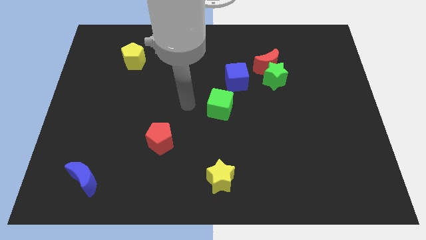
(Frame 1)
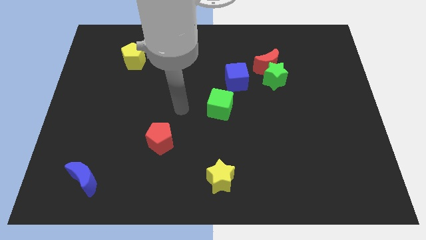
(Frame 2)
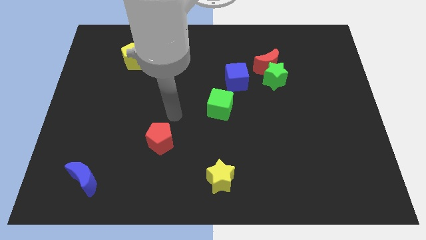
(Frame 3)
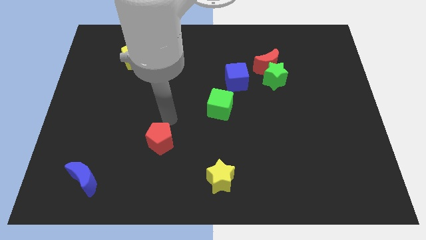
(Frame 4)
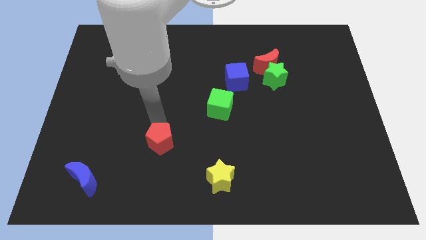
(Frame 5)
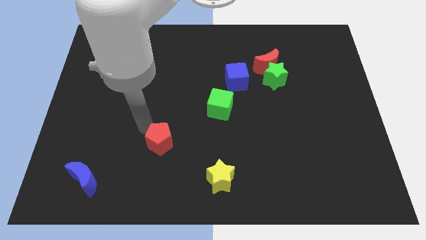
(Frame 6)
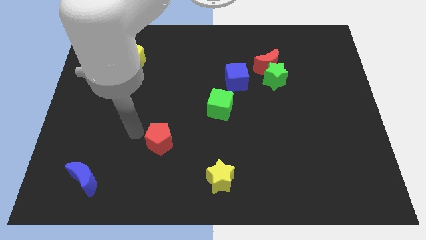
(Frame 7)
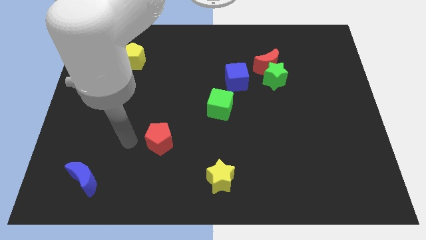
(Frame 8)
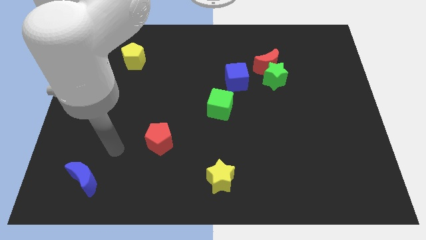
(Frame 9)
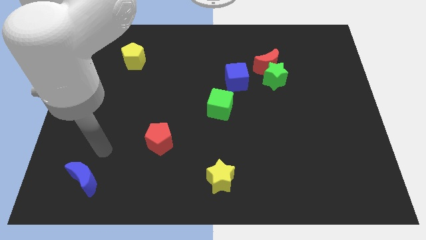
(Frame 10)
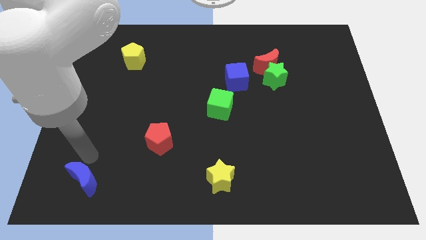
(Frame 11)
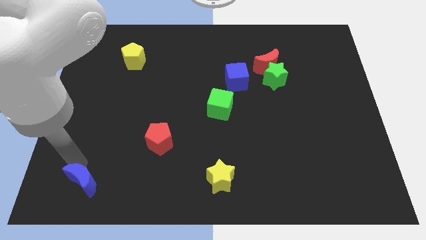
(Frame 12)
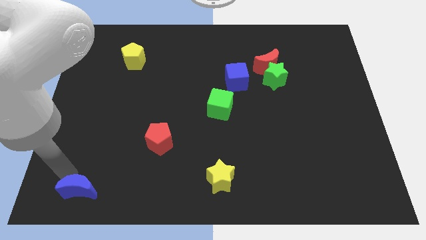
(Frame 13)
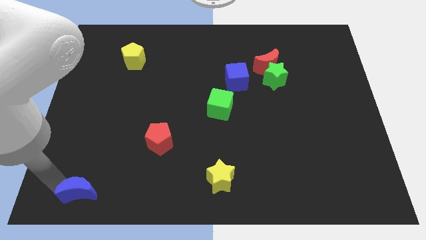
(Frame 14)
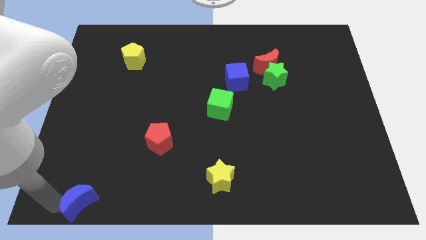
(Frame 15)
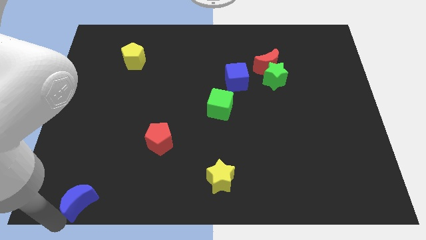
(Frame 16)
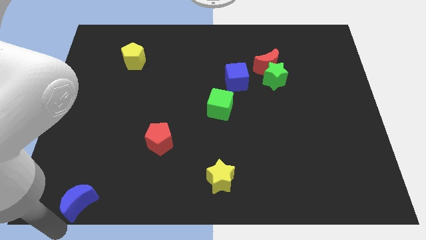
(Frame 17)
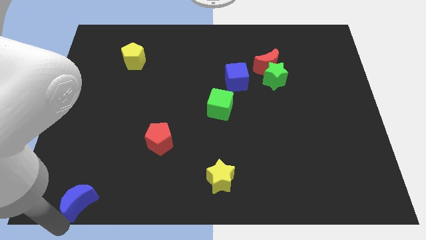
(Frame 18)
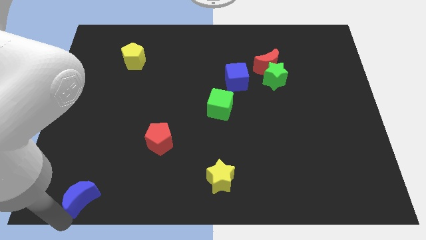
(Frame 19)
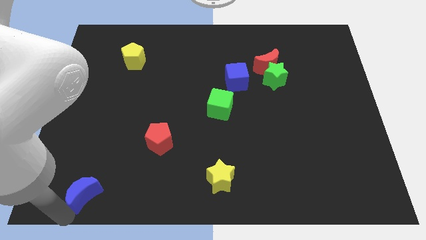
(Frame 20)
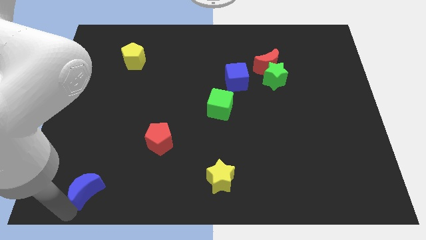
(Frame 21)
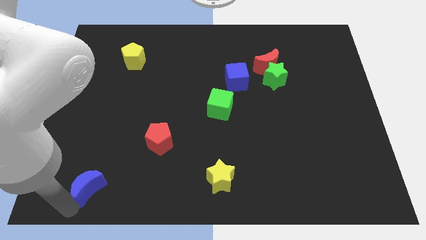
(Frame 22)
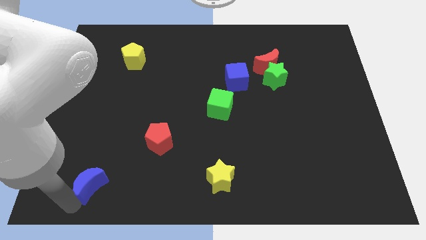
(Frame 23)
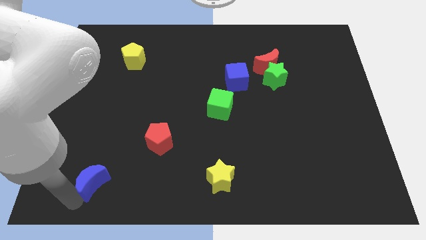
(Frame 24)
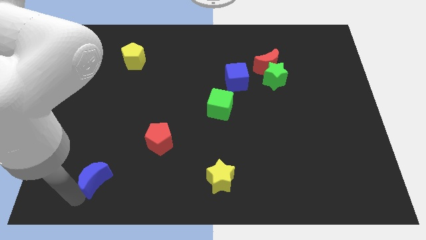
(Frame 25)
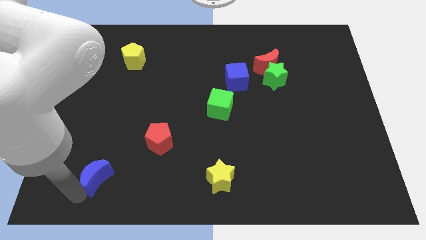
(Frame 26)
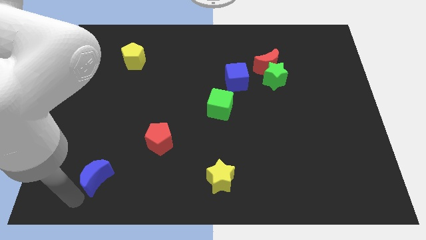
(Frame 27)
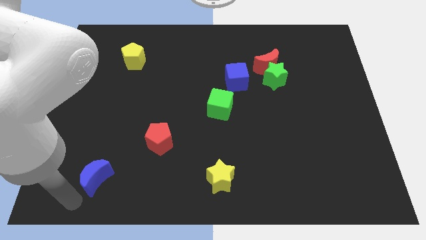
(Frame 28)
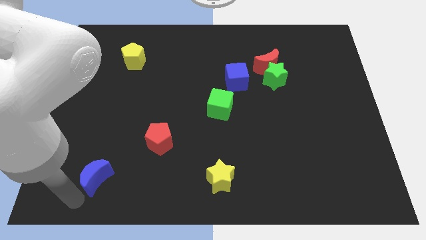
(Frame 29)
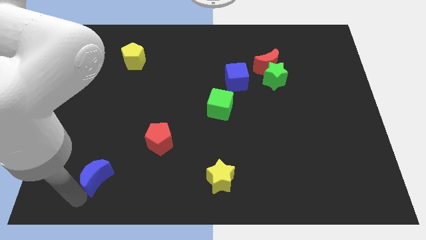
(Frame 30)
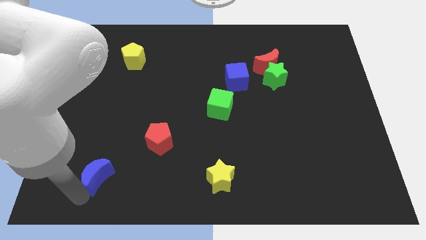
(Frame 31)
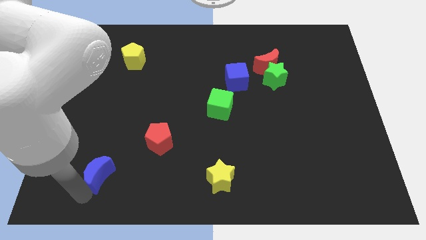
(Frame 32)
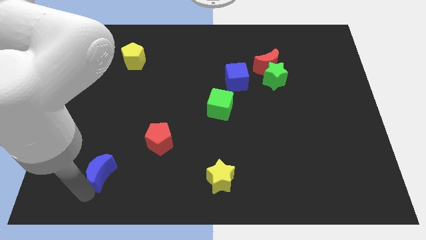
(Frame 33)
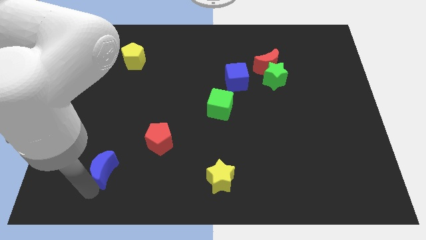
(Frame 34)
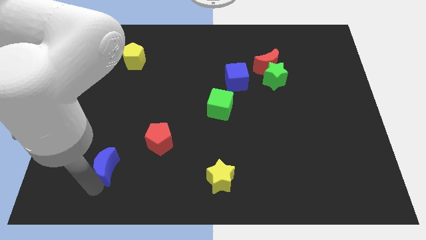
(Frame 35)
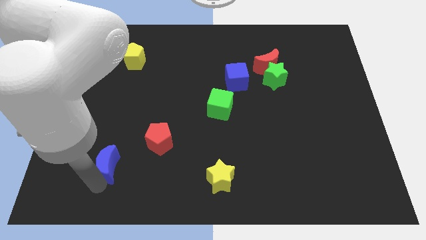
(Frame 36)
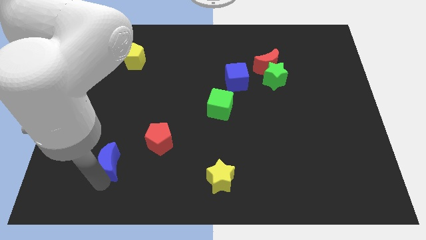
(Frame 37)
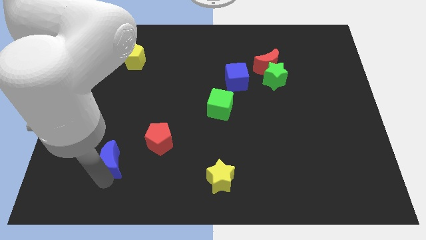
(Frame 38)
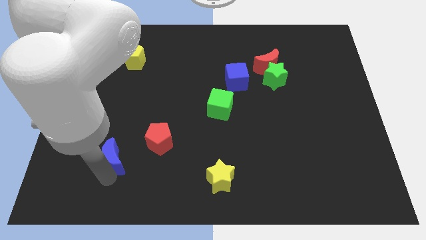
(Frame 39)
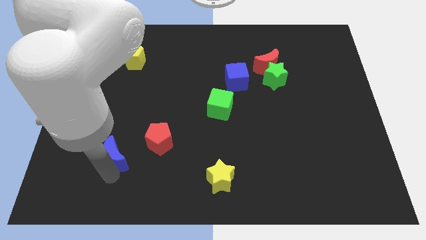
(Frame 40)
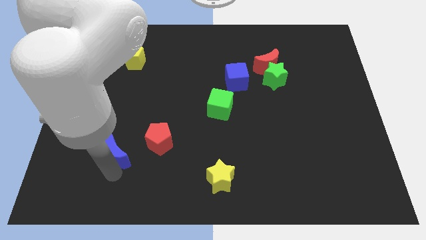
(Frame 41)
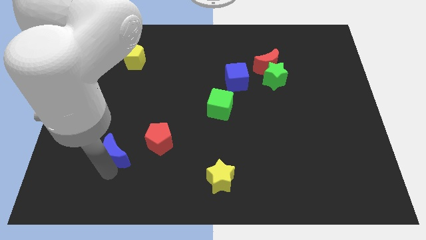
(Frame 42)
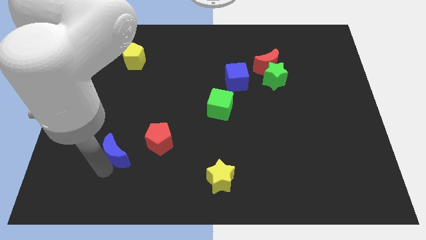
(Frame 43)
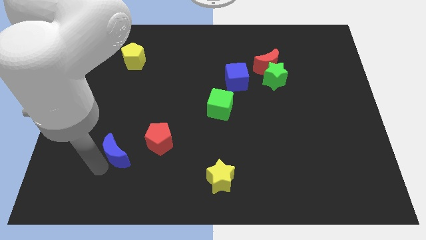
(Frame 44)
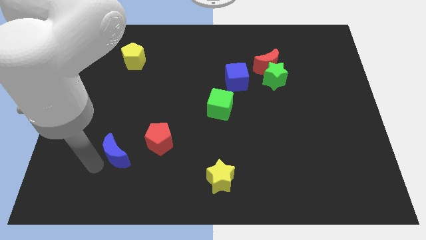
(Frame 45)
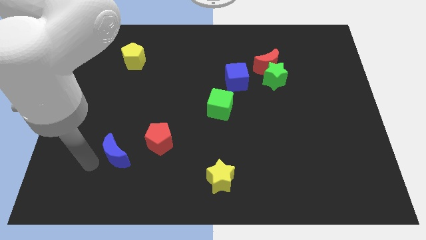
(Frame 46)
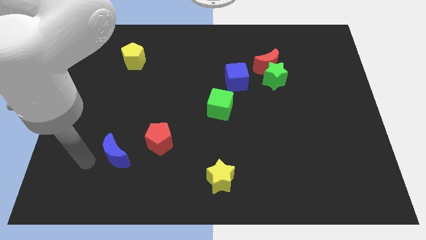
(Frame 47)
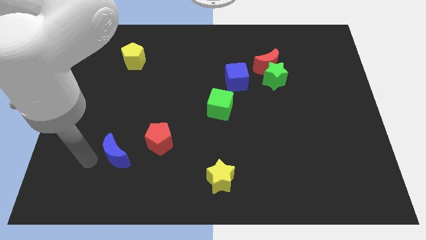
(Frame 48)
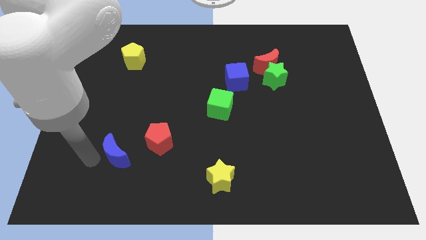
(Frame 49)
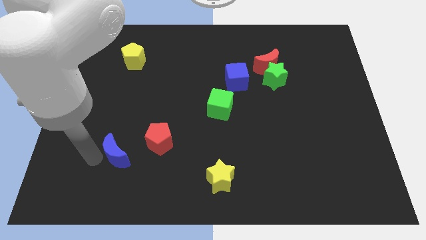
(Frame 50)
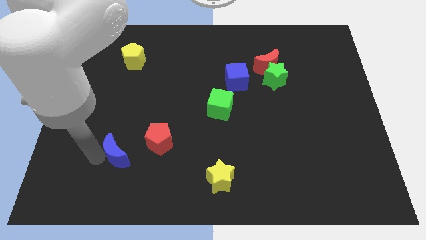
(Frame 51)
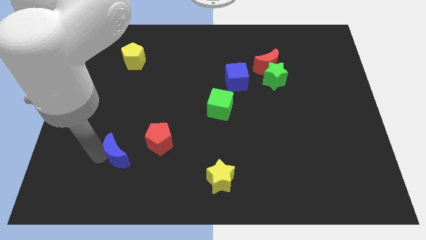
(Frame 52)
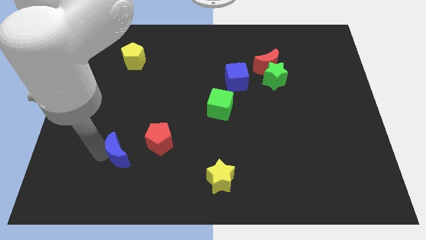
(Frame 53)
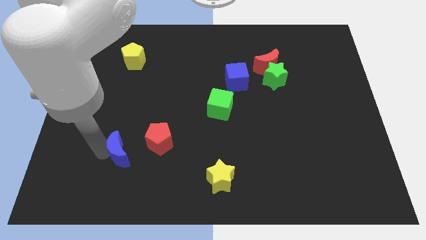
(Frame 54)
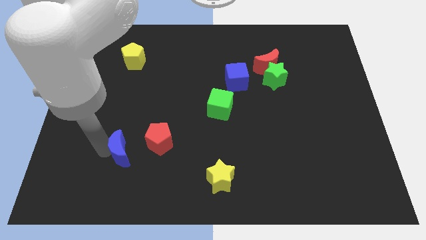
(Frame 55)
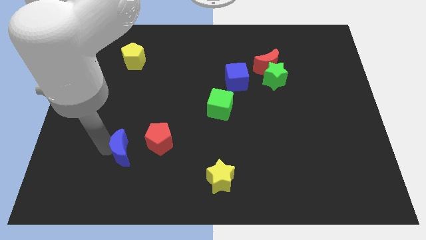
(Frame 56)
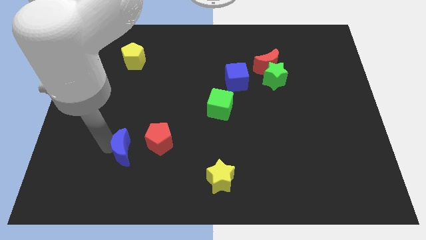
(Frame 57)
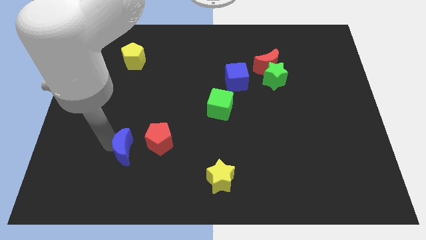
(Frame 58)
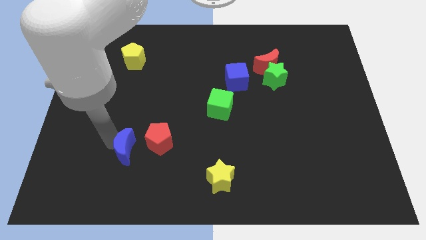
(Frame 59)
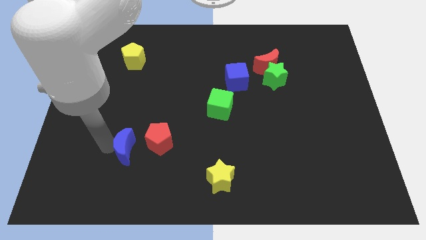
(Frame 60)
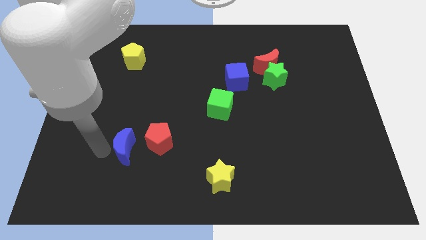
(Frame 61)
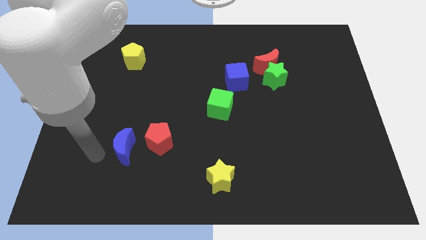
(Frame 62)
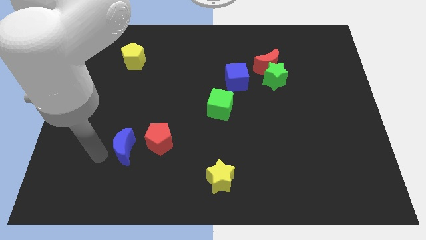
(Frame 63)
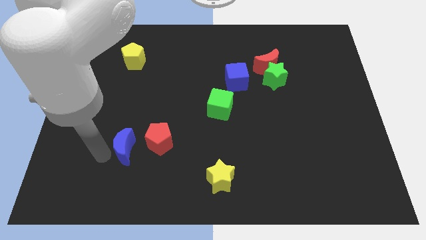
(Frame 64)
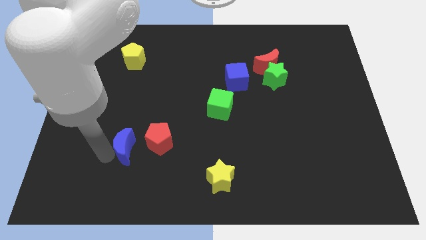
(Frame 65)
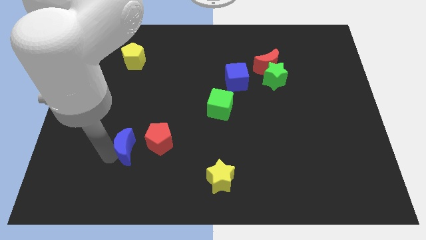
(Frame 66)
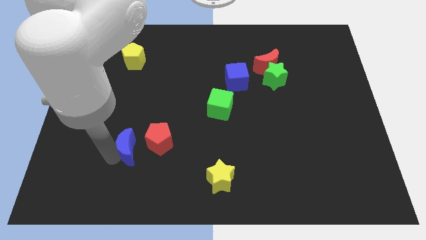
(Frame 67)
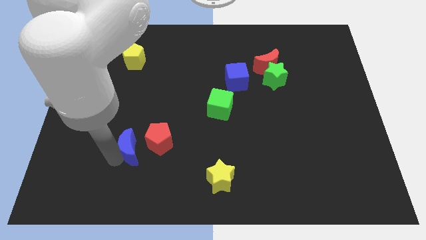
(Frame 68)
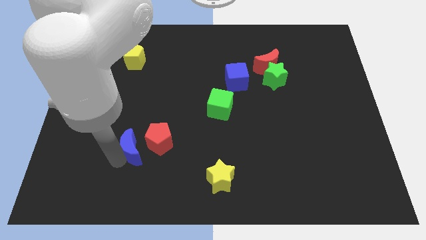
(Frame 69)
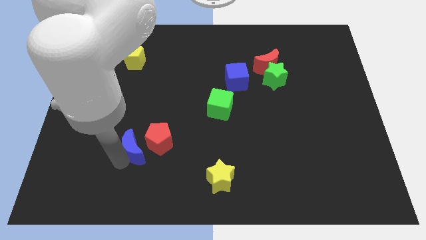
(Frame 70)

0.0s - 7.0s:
move the blue moon to the red pentagon

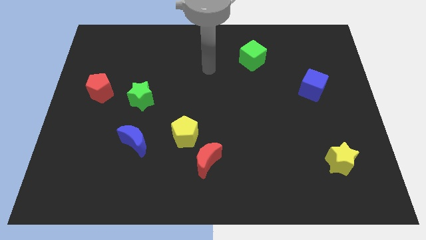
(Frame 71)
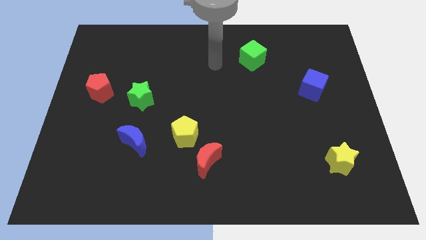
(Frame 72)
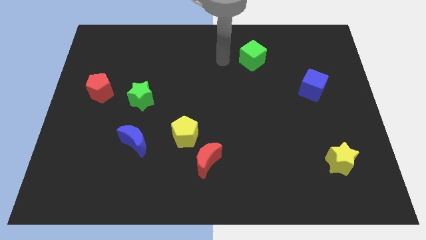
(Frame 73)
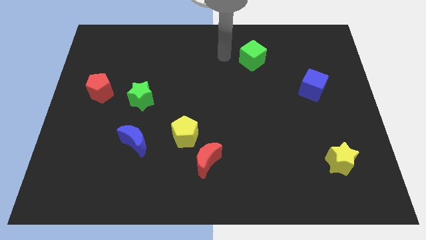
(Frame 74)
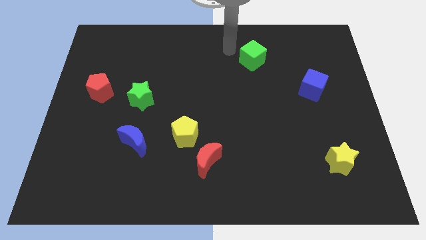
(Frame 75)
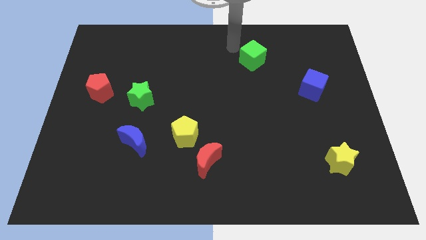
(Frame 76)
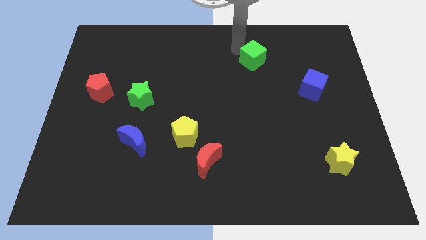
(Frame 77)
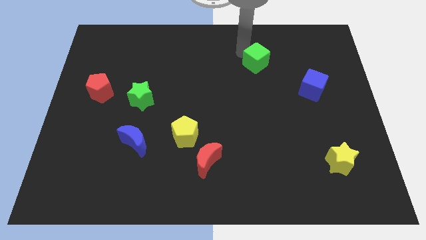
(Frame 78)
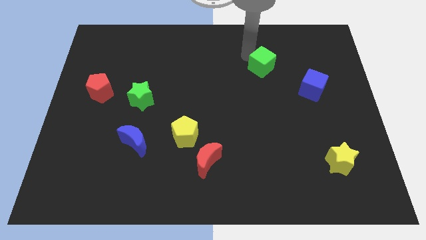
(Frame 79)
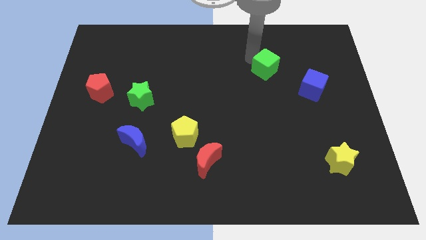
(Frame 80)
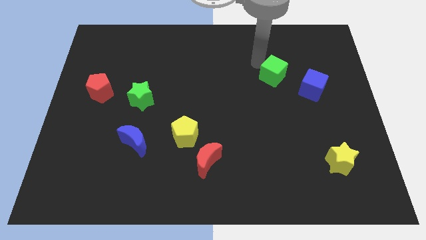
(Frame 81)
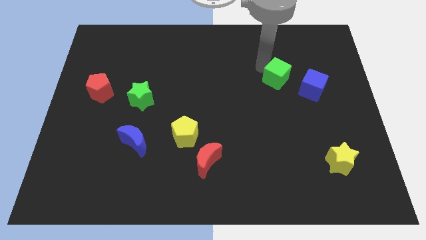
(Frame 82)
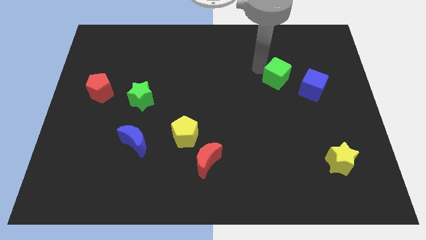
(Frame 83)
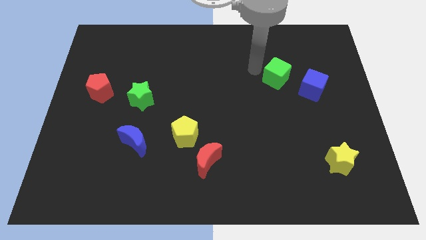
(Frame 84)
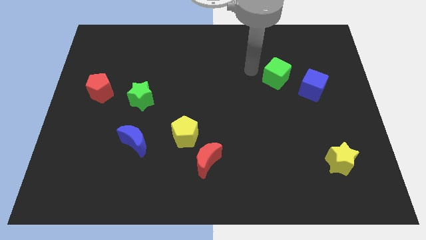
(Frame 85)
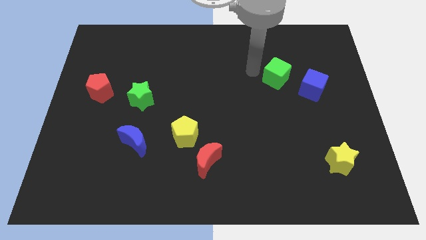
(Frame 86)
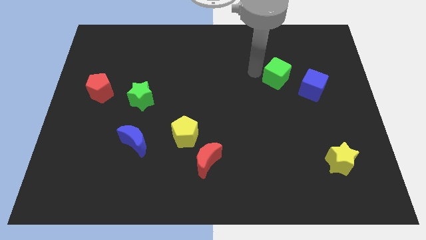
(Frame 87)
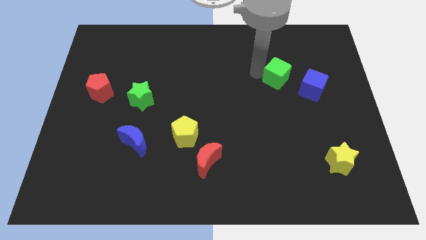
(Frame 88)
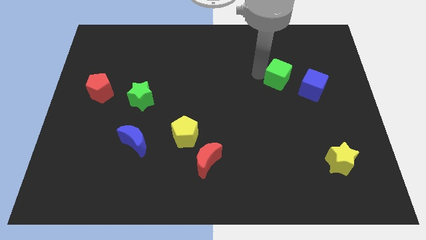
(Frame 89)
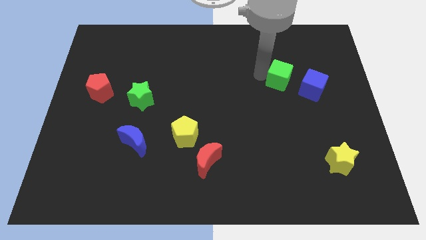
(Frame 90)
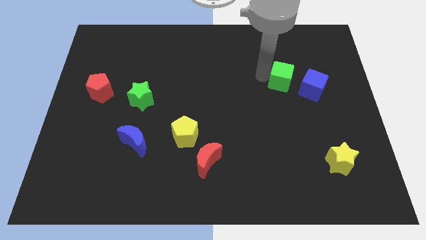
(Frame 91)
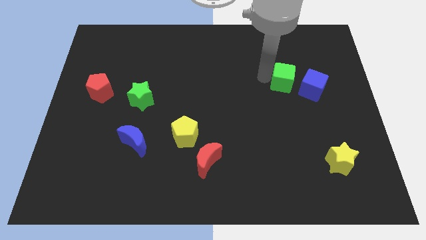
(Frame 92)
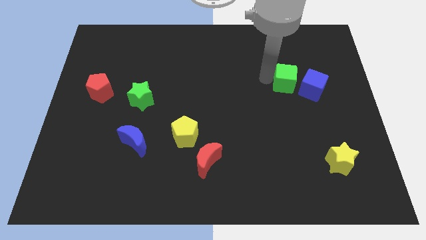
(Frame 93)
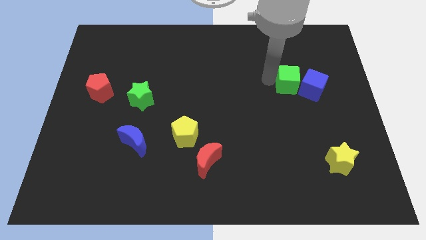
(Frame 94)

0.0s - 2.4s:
push the green cube close to the blue cube
